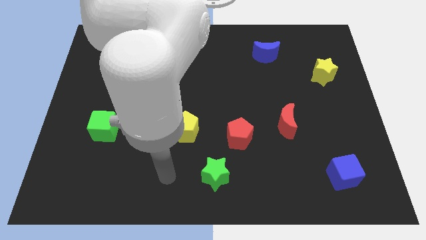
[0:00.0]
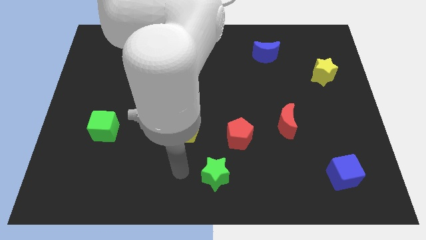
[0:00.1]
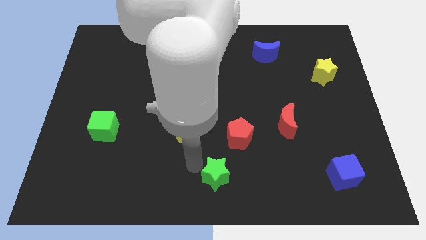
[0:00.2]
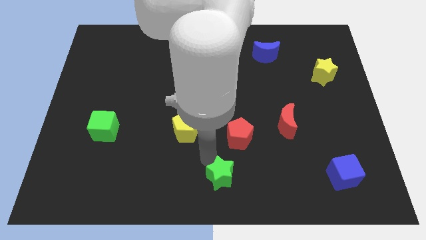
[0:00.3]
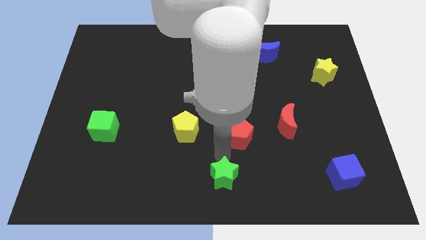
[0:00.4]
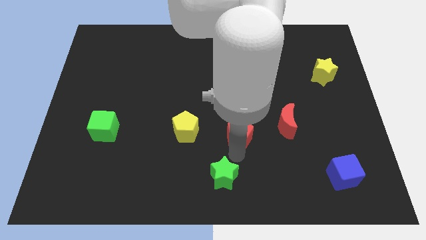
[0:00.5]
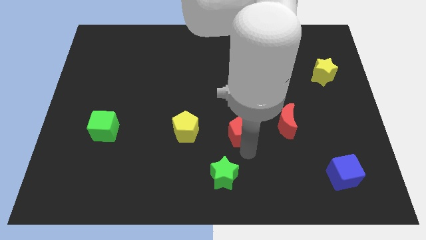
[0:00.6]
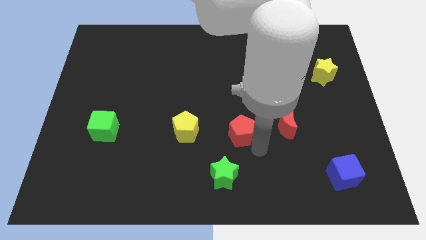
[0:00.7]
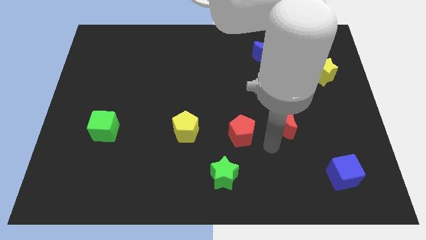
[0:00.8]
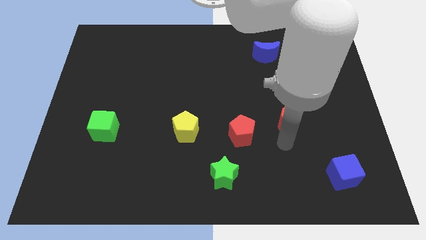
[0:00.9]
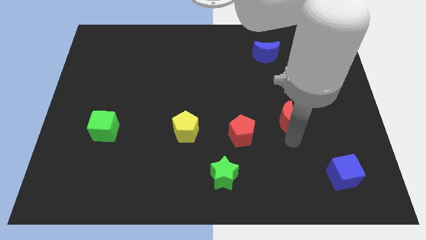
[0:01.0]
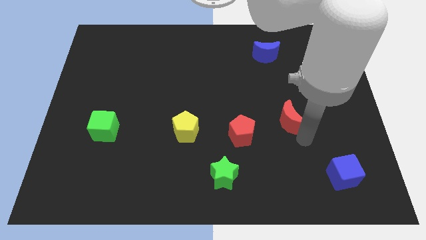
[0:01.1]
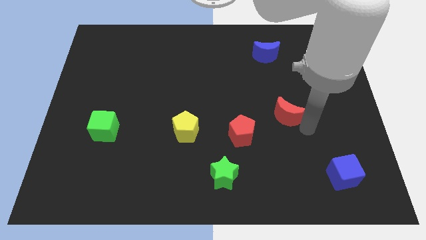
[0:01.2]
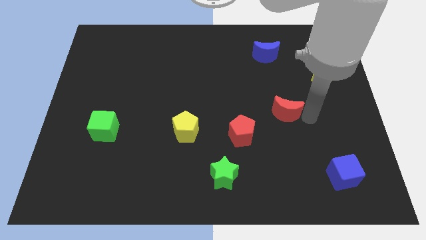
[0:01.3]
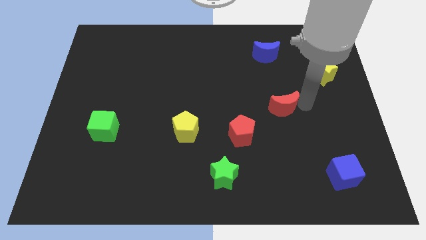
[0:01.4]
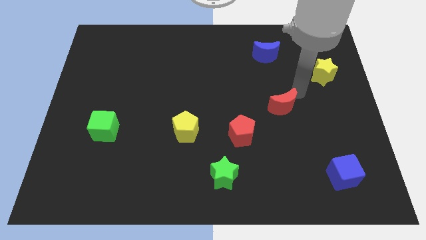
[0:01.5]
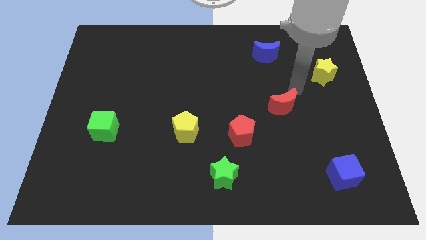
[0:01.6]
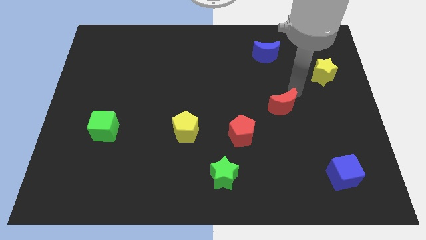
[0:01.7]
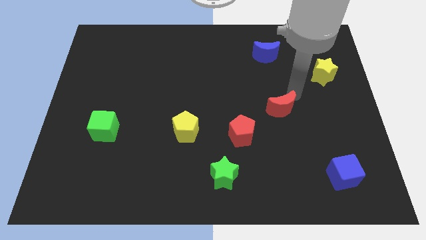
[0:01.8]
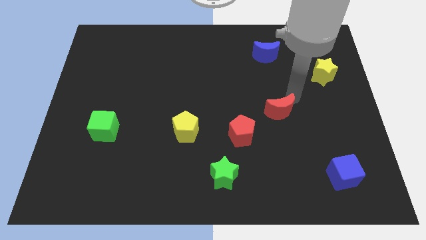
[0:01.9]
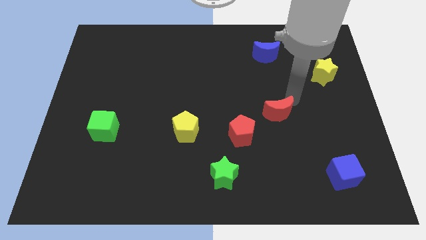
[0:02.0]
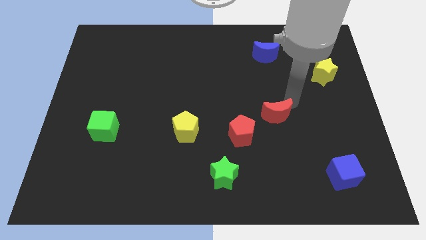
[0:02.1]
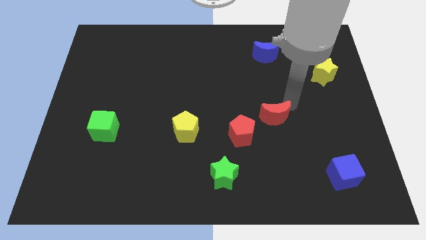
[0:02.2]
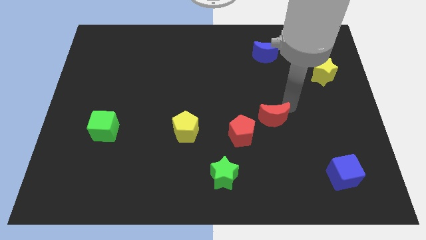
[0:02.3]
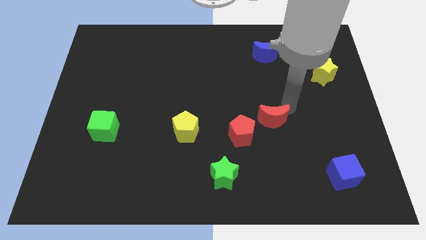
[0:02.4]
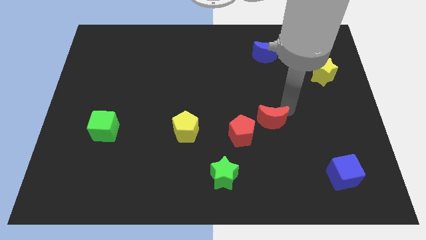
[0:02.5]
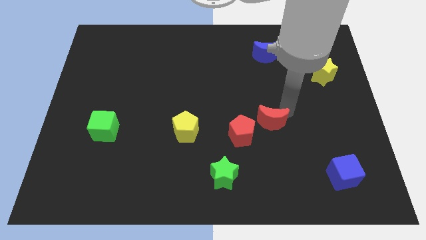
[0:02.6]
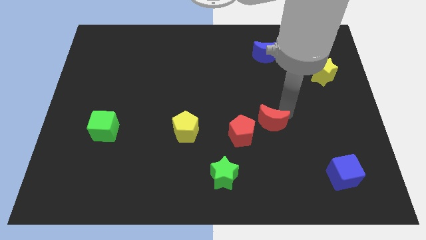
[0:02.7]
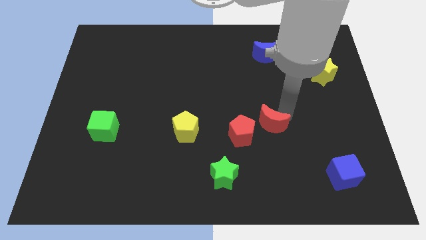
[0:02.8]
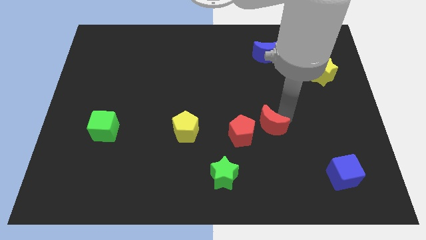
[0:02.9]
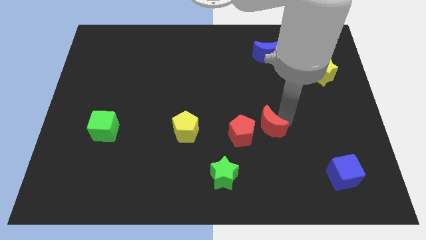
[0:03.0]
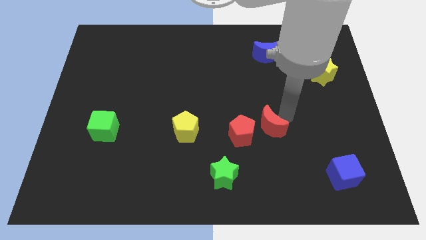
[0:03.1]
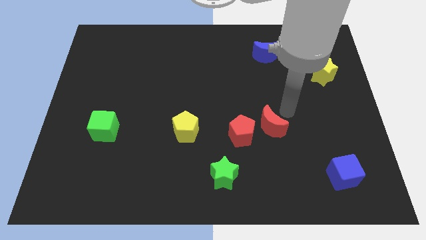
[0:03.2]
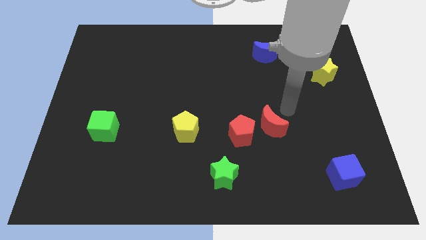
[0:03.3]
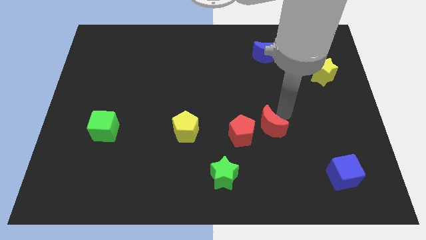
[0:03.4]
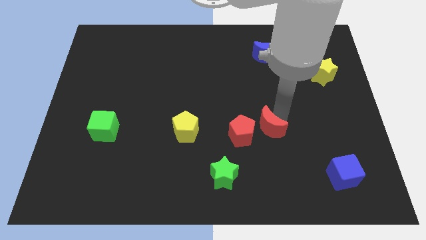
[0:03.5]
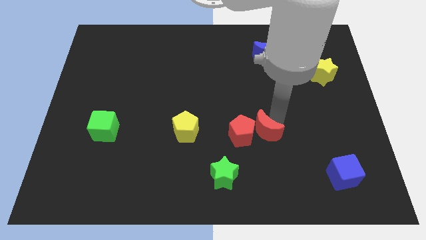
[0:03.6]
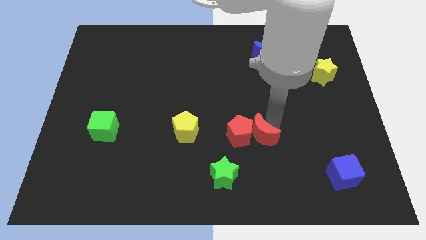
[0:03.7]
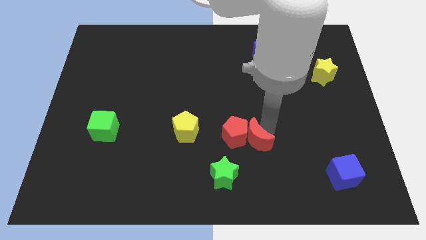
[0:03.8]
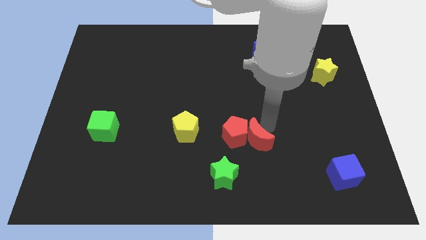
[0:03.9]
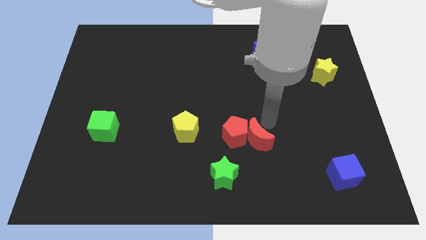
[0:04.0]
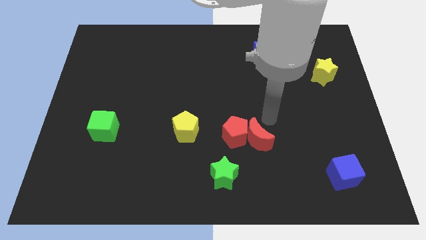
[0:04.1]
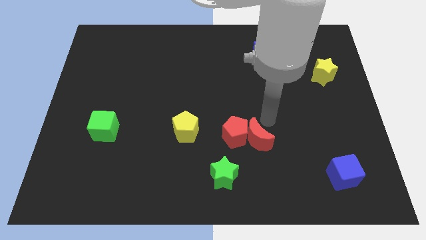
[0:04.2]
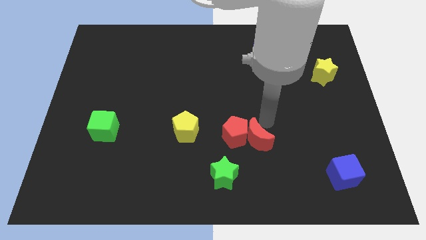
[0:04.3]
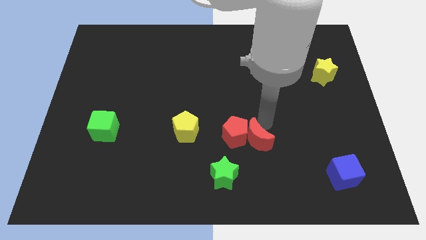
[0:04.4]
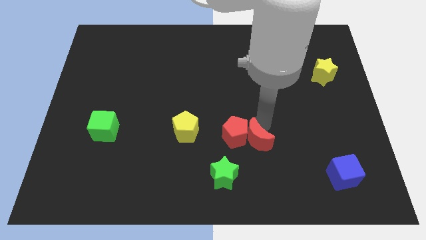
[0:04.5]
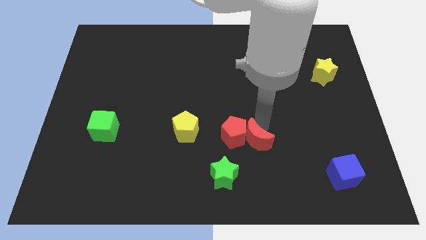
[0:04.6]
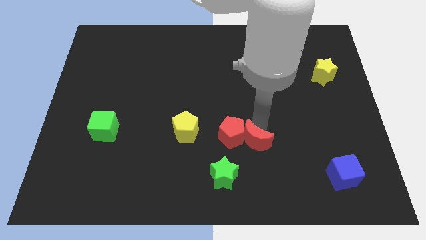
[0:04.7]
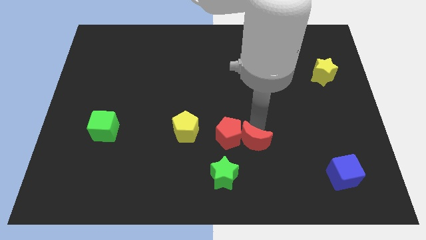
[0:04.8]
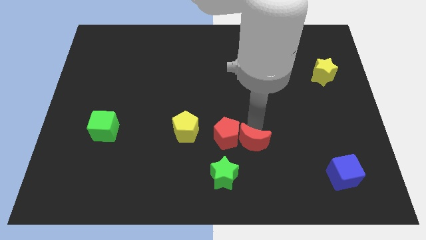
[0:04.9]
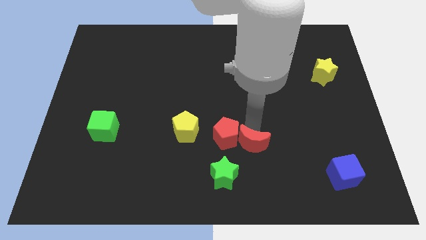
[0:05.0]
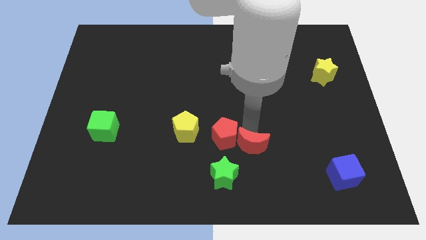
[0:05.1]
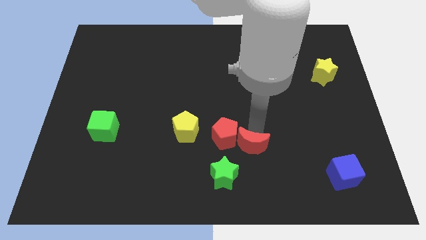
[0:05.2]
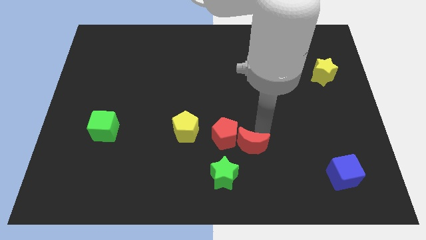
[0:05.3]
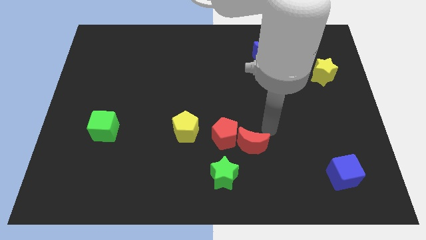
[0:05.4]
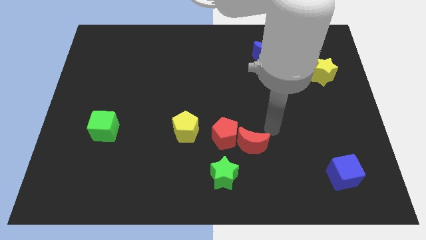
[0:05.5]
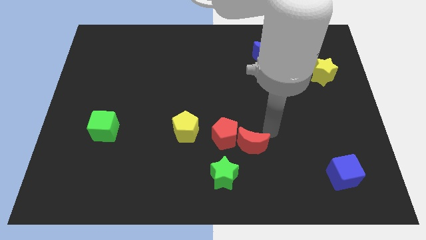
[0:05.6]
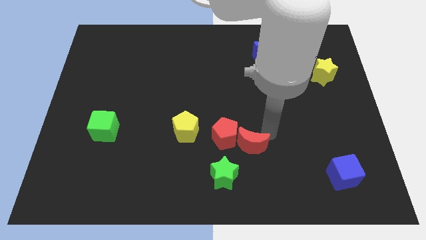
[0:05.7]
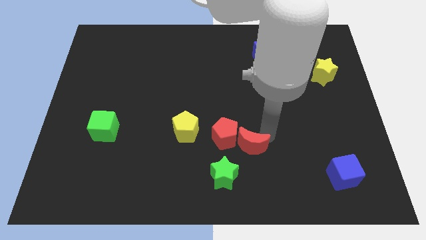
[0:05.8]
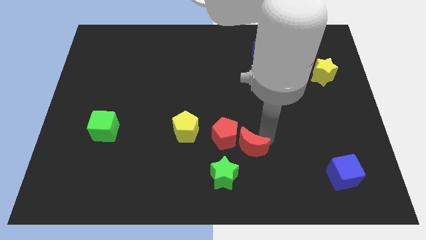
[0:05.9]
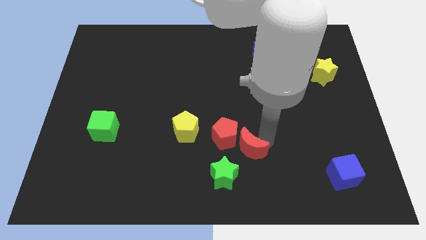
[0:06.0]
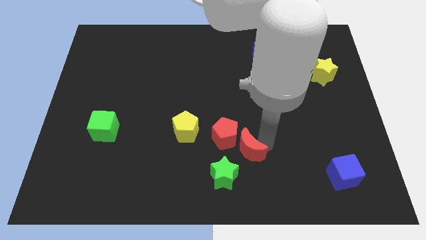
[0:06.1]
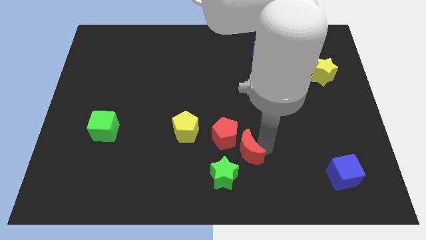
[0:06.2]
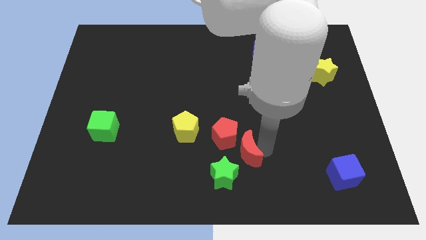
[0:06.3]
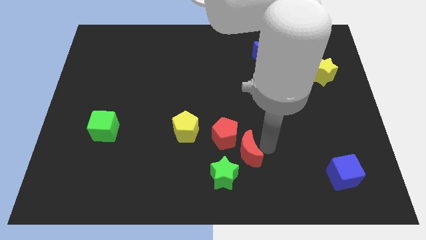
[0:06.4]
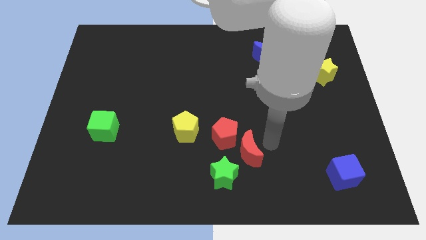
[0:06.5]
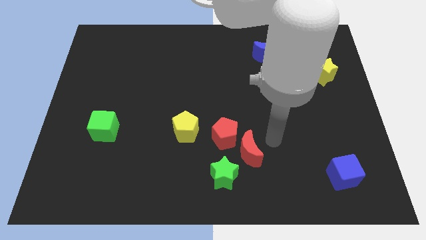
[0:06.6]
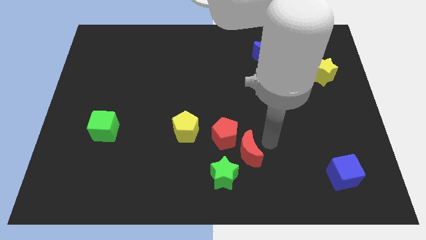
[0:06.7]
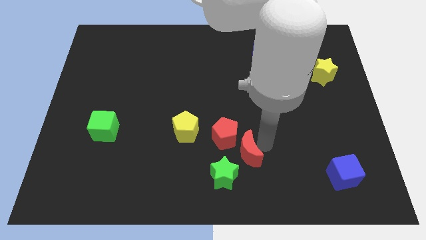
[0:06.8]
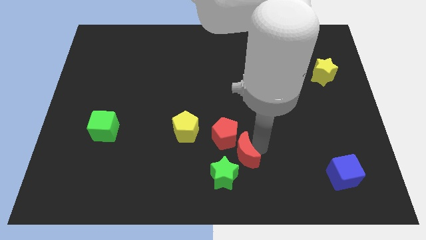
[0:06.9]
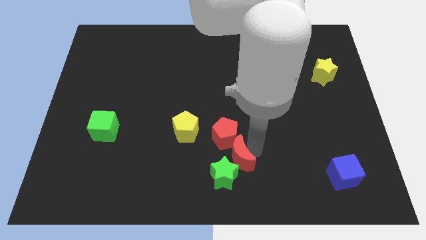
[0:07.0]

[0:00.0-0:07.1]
slide the red moon close to the green star
